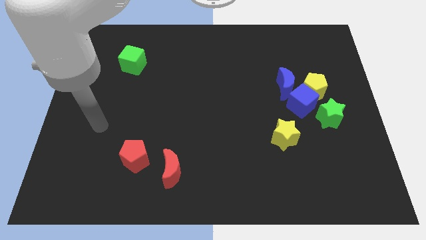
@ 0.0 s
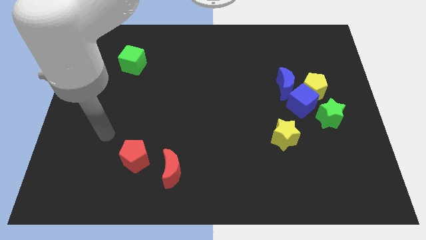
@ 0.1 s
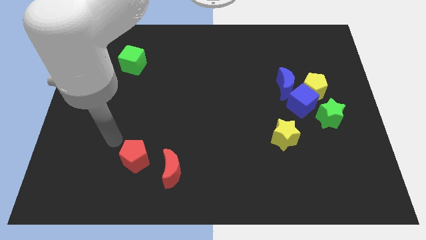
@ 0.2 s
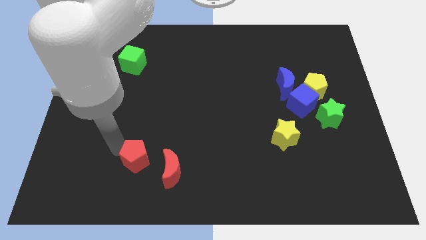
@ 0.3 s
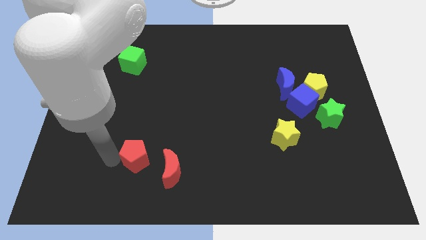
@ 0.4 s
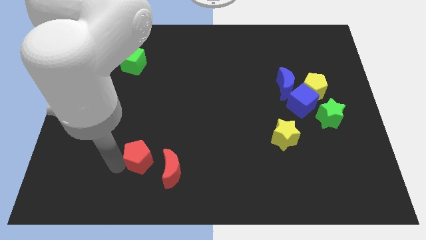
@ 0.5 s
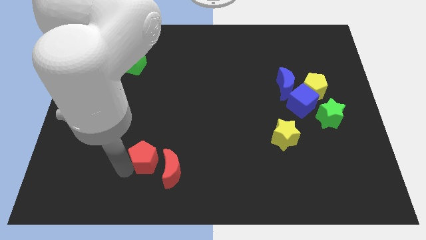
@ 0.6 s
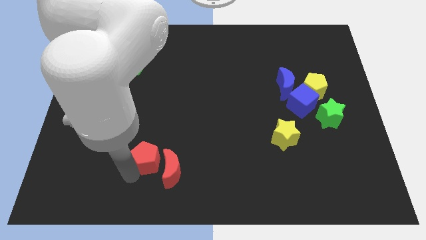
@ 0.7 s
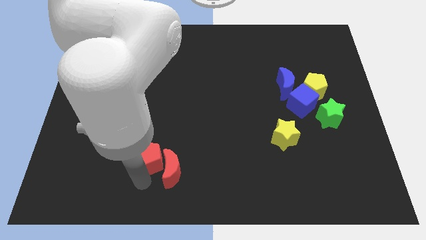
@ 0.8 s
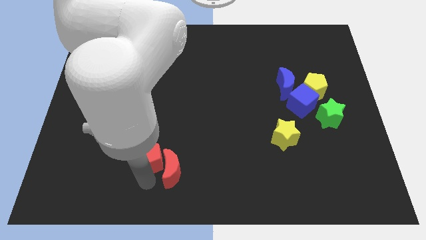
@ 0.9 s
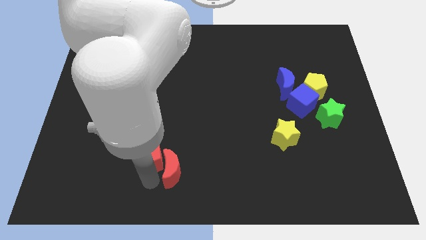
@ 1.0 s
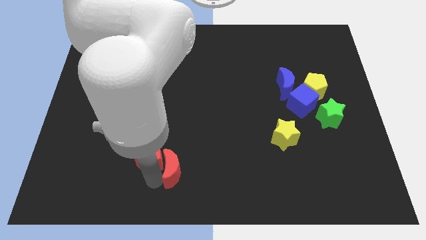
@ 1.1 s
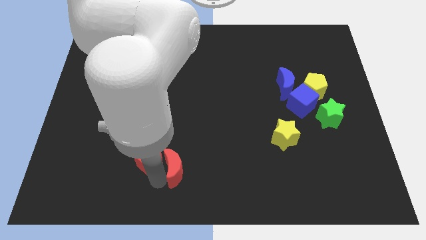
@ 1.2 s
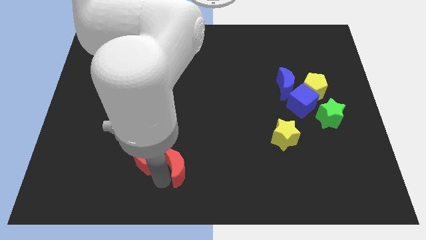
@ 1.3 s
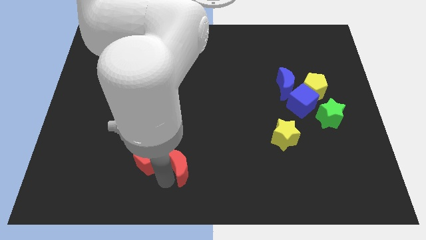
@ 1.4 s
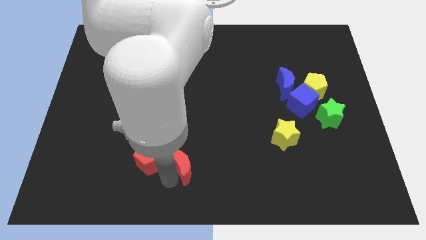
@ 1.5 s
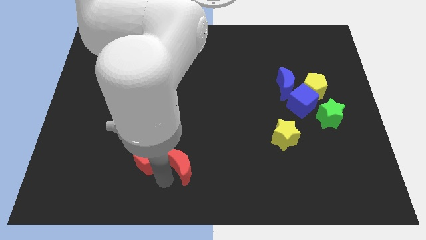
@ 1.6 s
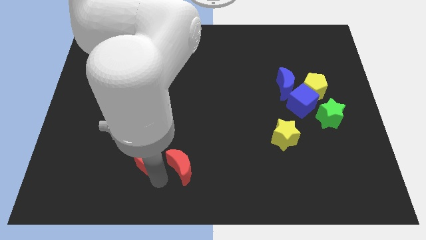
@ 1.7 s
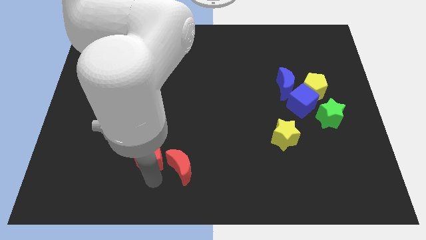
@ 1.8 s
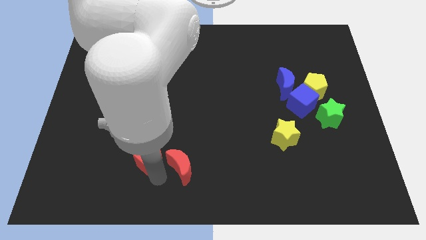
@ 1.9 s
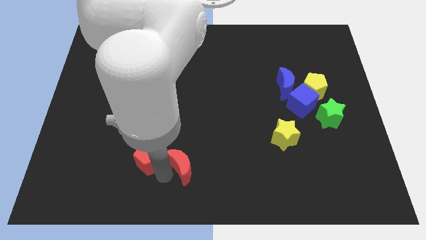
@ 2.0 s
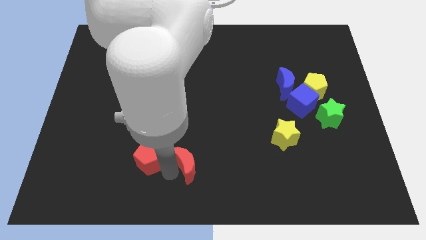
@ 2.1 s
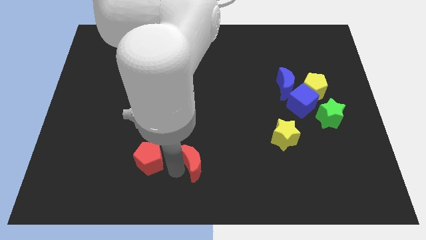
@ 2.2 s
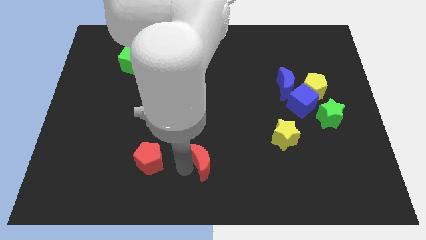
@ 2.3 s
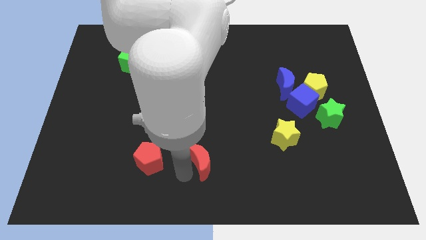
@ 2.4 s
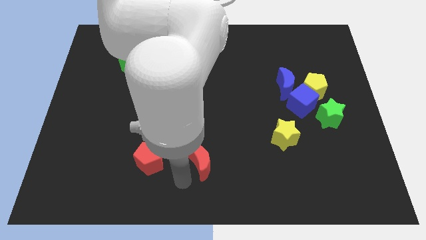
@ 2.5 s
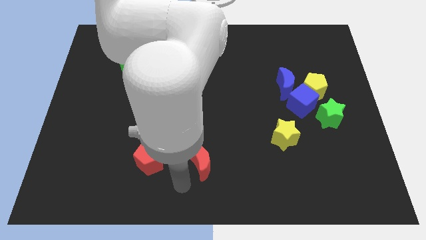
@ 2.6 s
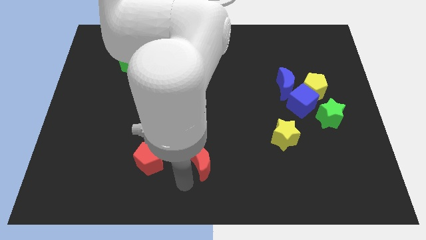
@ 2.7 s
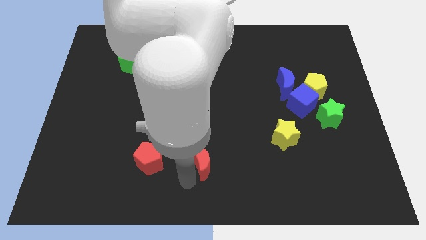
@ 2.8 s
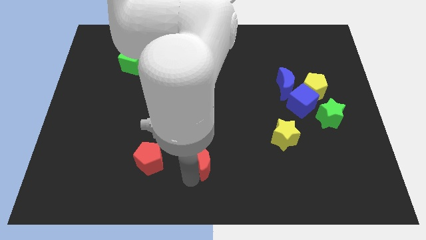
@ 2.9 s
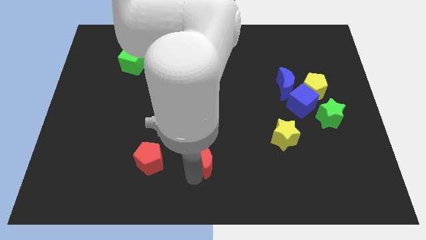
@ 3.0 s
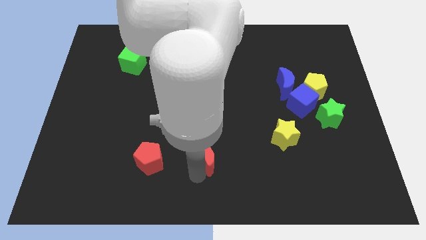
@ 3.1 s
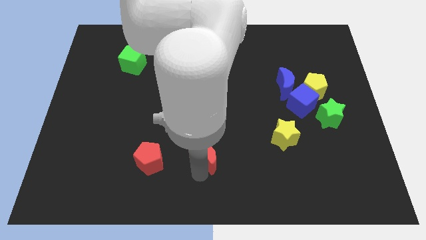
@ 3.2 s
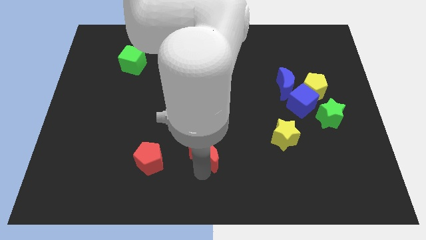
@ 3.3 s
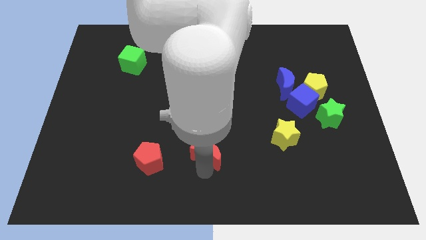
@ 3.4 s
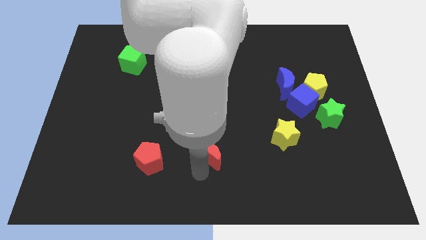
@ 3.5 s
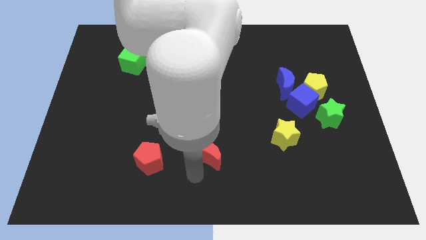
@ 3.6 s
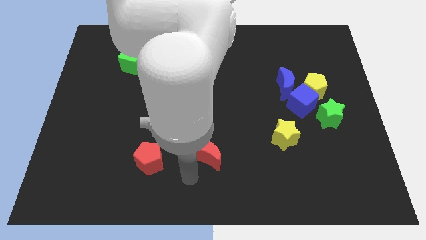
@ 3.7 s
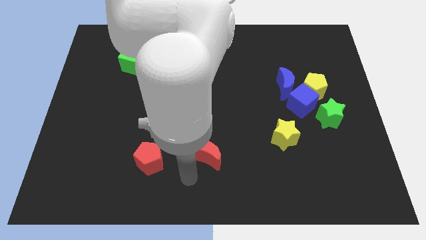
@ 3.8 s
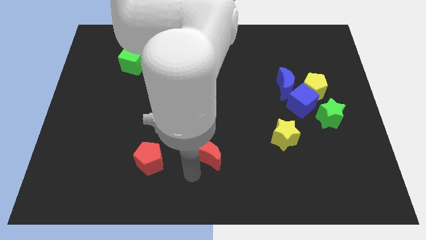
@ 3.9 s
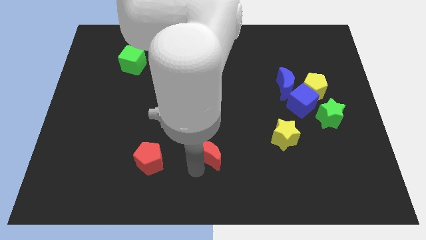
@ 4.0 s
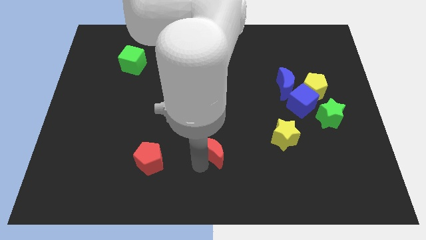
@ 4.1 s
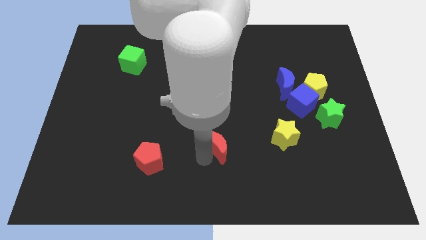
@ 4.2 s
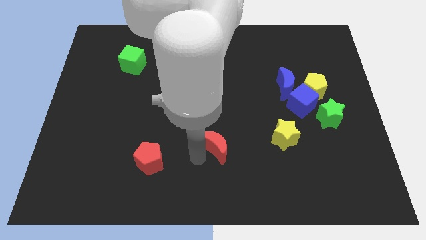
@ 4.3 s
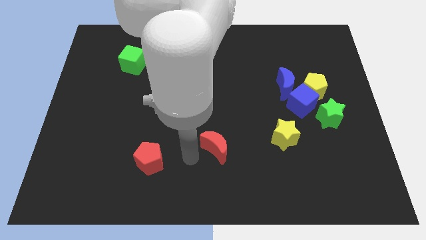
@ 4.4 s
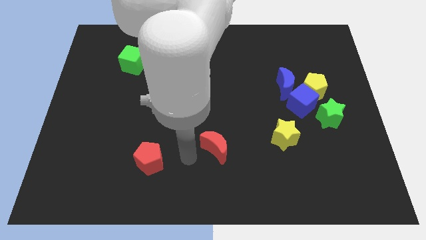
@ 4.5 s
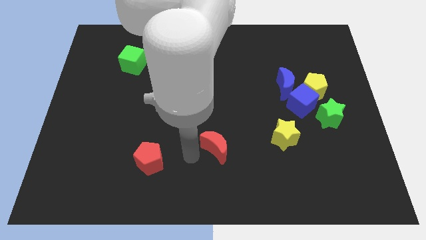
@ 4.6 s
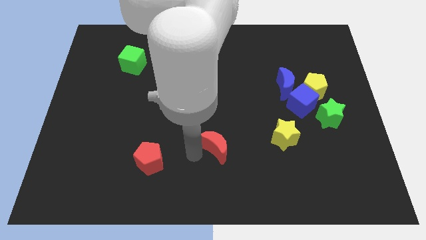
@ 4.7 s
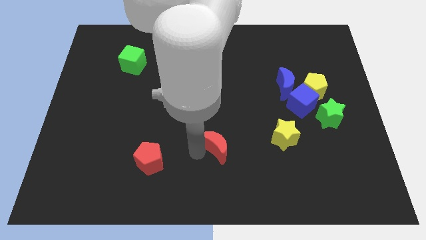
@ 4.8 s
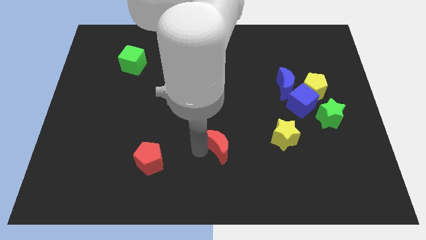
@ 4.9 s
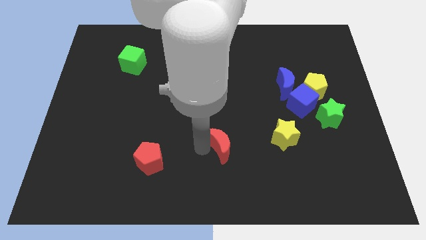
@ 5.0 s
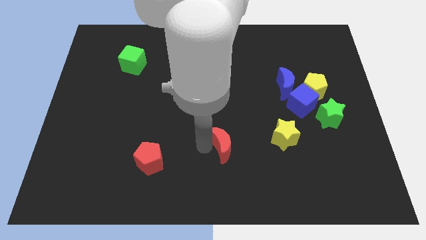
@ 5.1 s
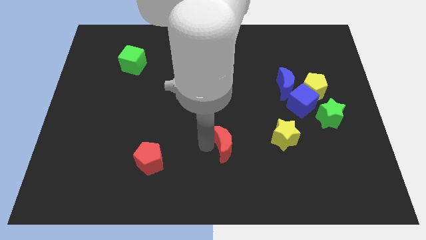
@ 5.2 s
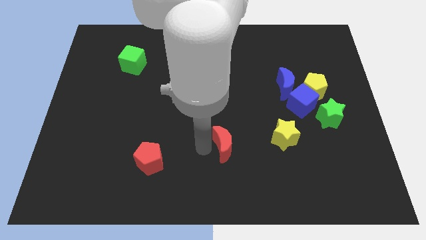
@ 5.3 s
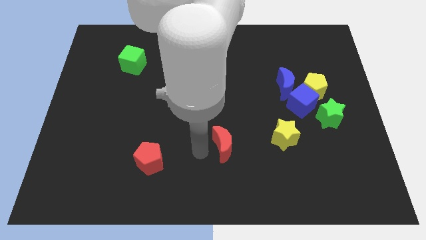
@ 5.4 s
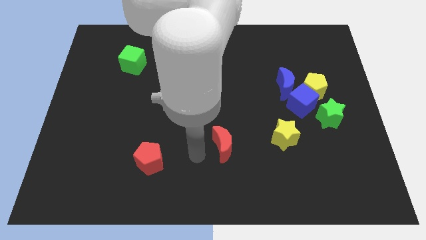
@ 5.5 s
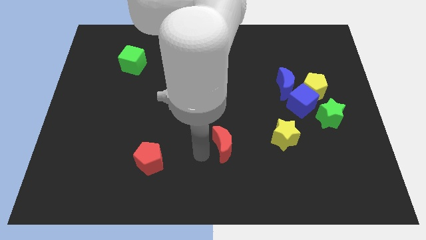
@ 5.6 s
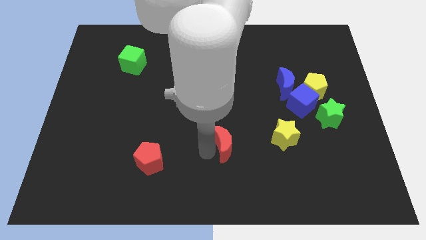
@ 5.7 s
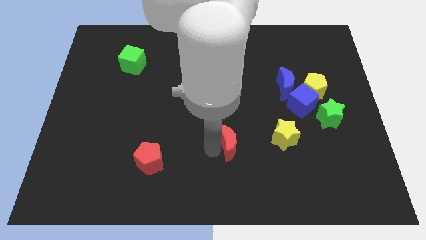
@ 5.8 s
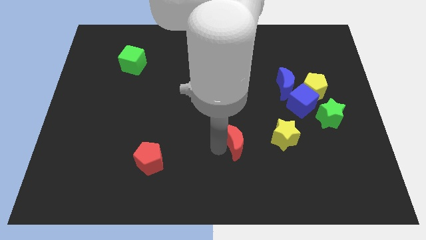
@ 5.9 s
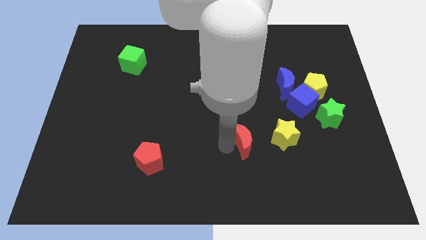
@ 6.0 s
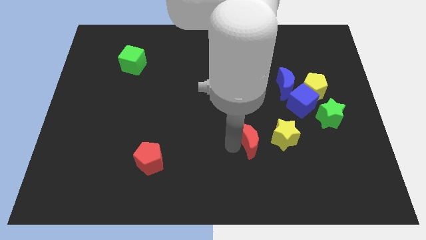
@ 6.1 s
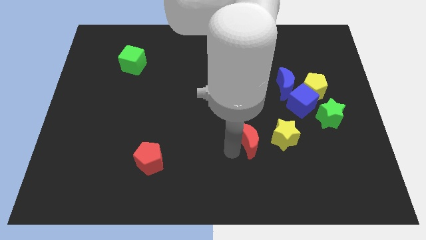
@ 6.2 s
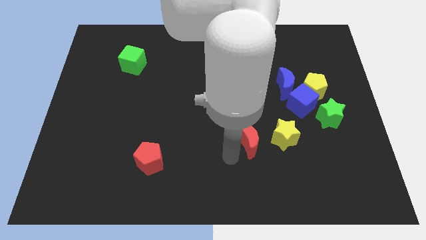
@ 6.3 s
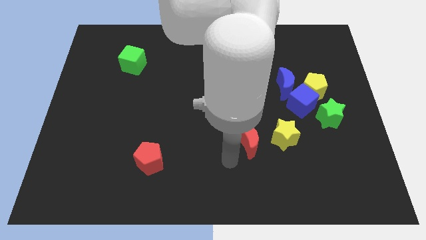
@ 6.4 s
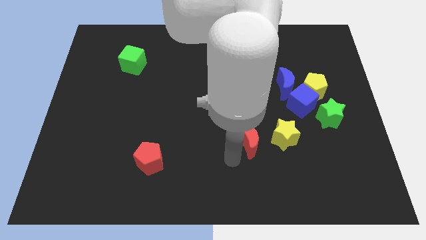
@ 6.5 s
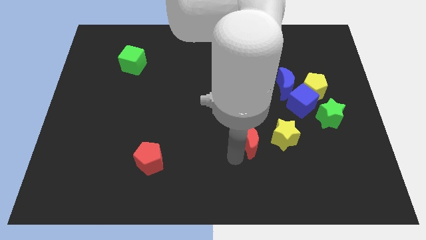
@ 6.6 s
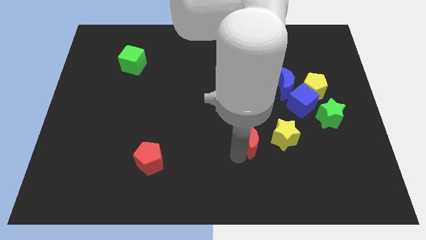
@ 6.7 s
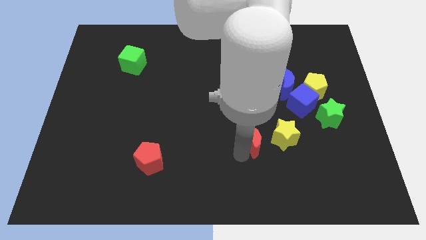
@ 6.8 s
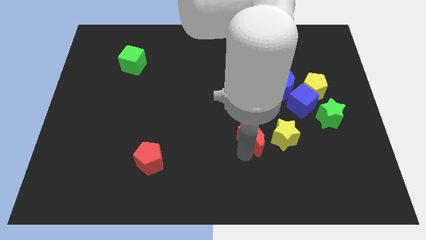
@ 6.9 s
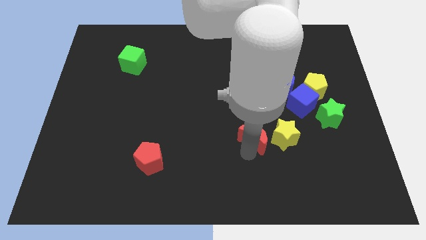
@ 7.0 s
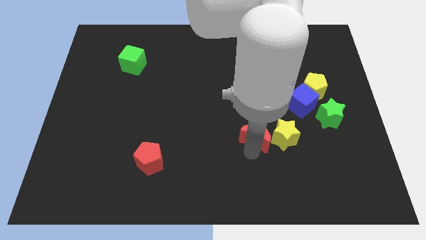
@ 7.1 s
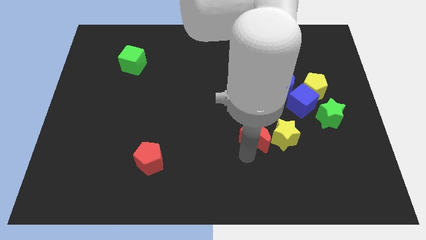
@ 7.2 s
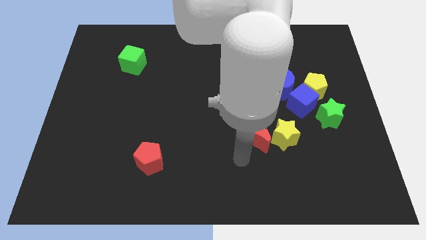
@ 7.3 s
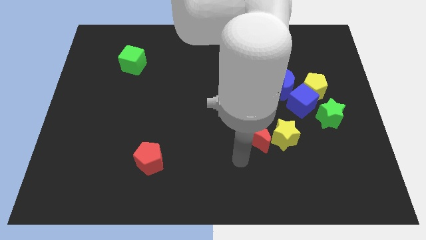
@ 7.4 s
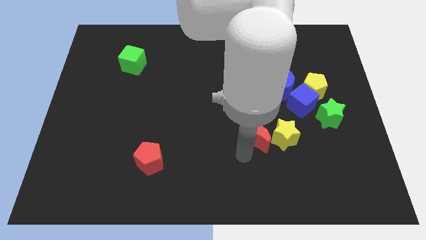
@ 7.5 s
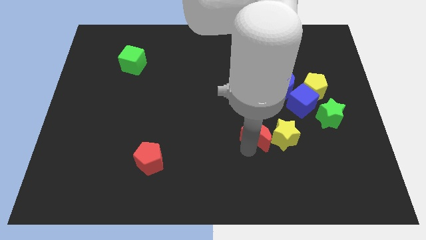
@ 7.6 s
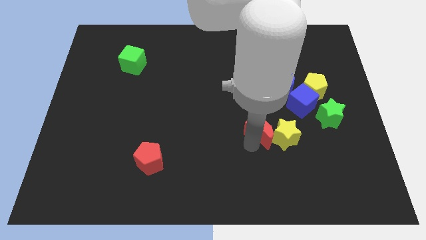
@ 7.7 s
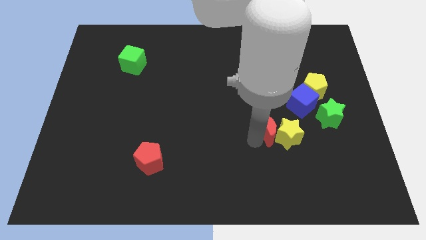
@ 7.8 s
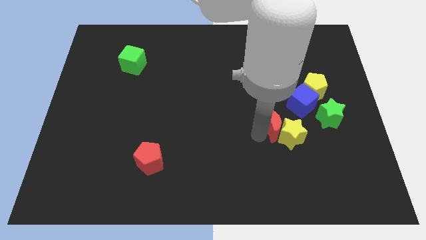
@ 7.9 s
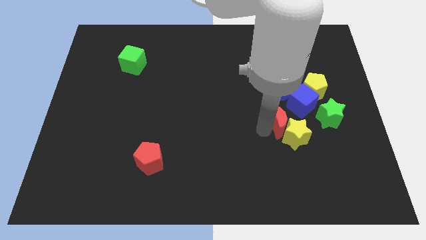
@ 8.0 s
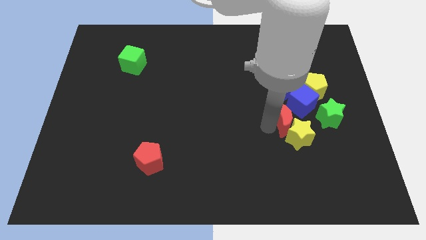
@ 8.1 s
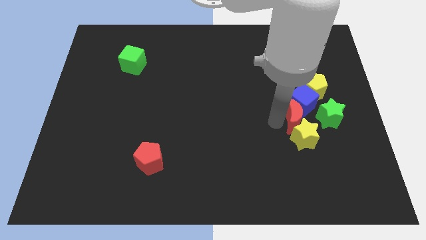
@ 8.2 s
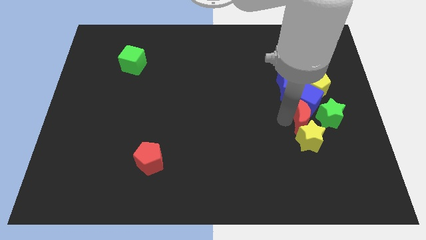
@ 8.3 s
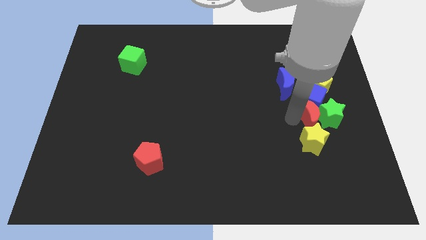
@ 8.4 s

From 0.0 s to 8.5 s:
slide the red moon next to the green star
